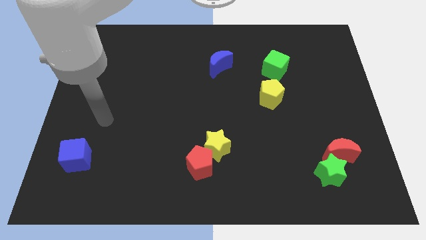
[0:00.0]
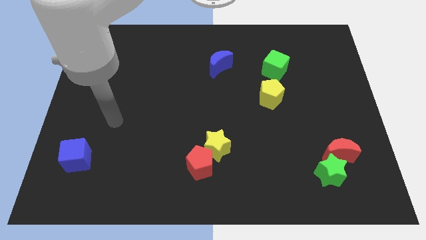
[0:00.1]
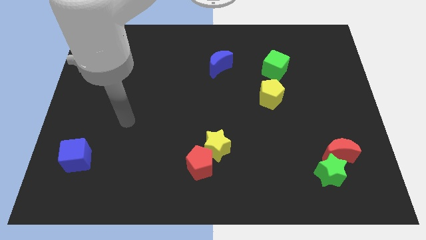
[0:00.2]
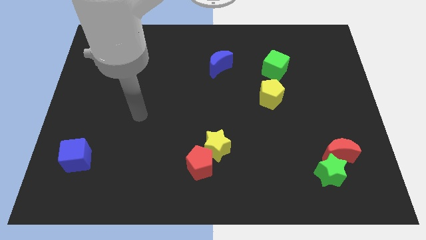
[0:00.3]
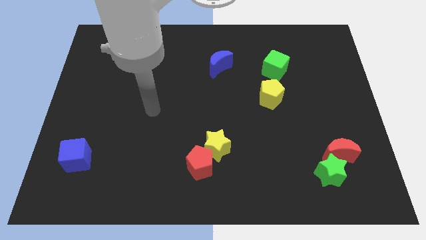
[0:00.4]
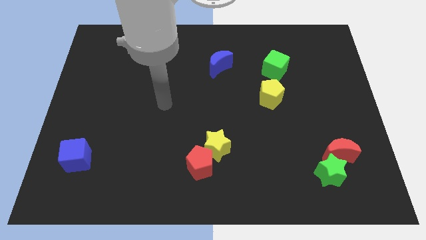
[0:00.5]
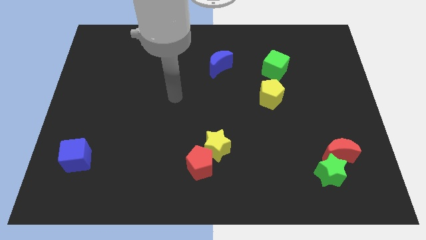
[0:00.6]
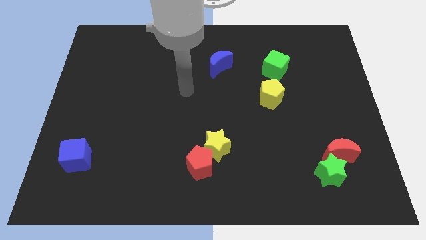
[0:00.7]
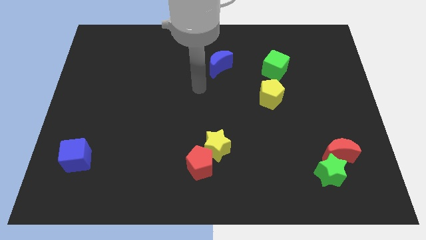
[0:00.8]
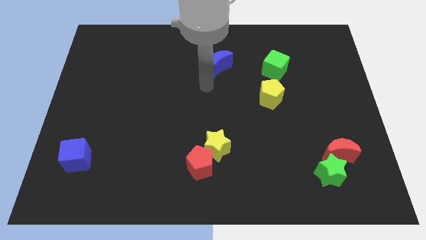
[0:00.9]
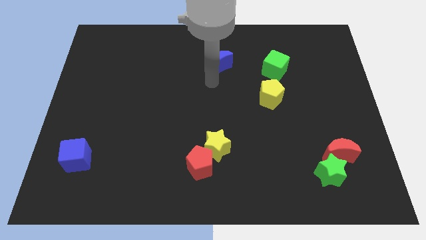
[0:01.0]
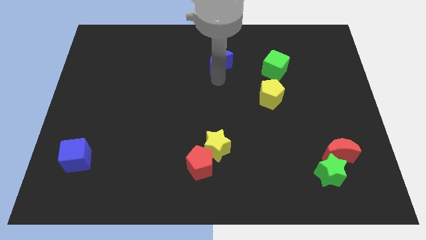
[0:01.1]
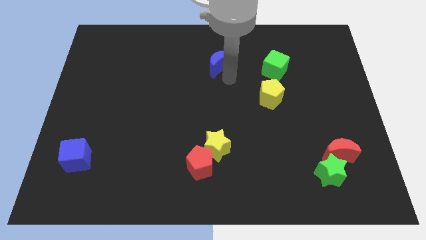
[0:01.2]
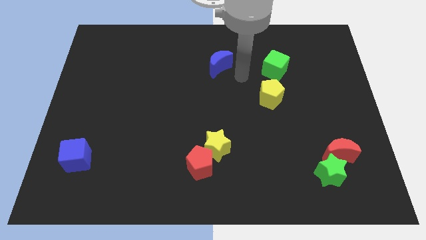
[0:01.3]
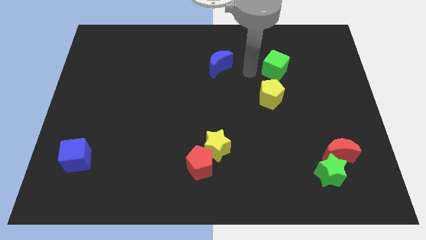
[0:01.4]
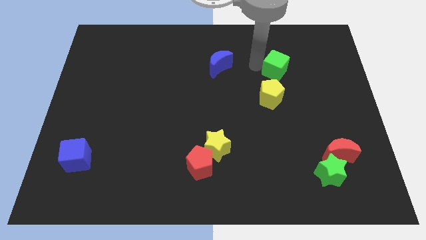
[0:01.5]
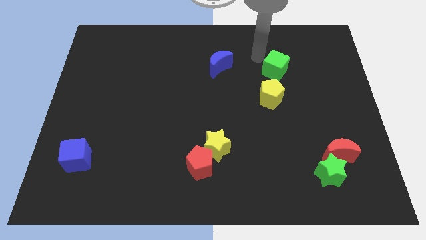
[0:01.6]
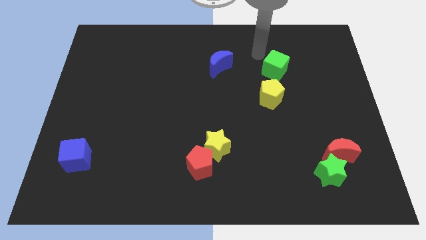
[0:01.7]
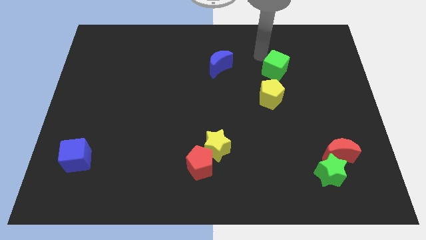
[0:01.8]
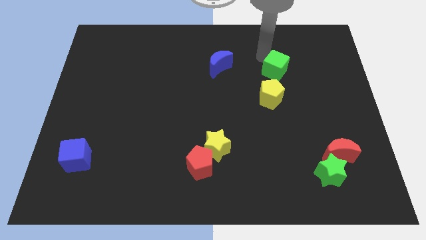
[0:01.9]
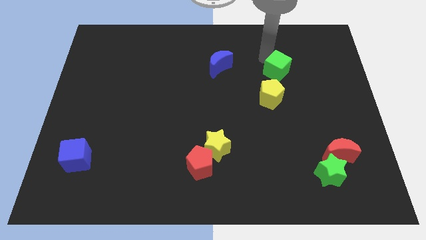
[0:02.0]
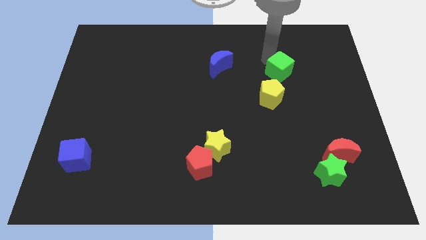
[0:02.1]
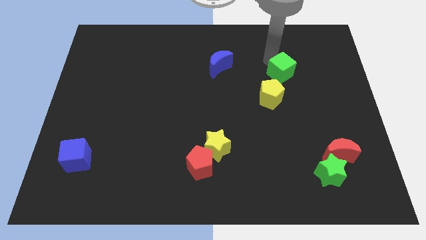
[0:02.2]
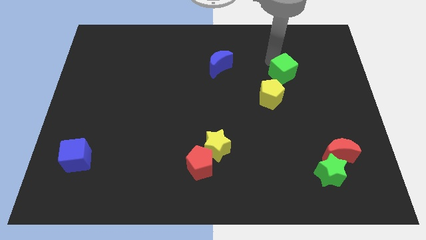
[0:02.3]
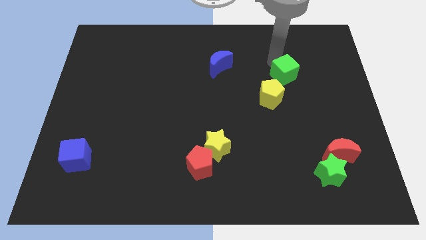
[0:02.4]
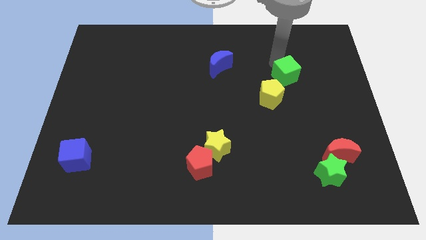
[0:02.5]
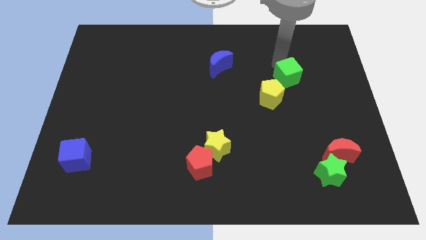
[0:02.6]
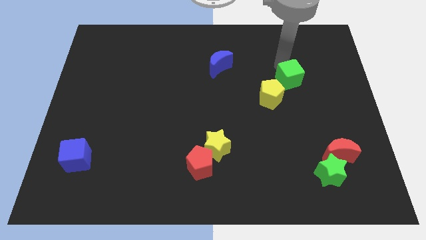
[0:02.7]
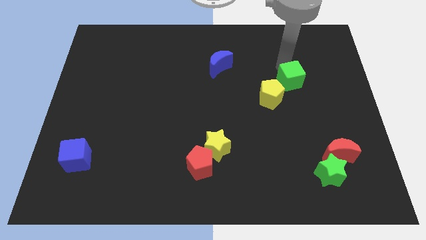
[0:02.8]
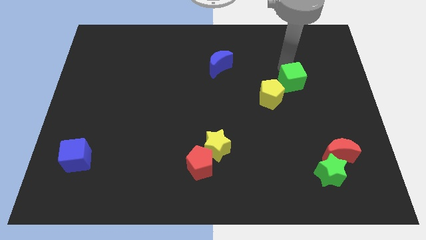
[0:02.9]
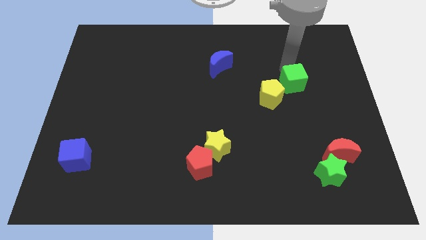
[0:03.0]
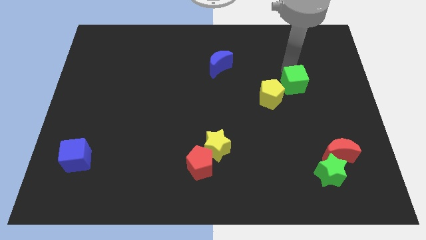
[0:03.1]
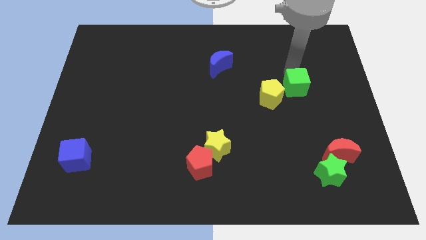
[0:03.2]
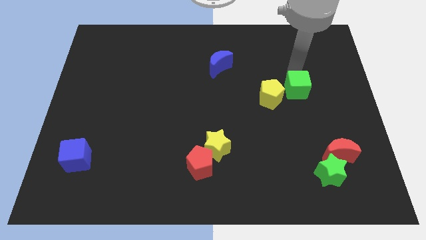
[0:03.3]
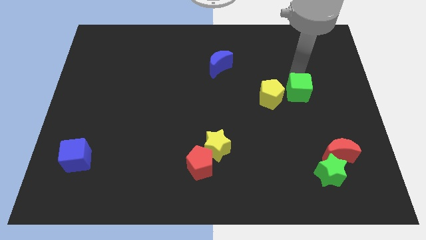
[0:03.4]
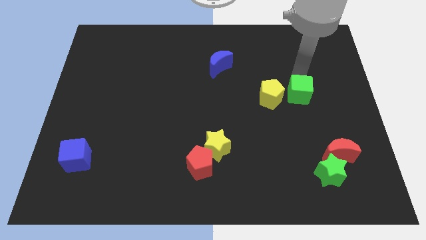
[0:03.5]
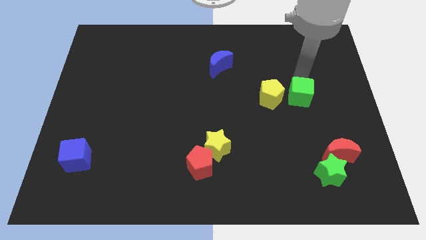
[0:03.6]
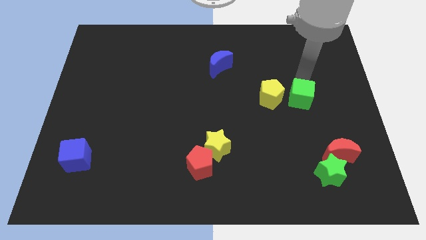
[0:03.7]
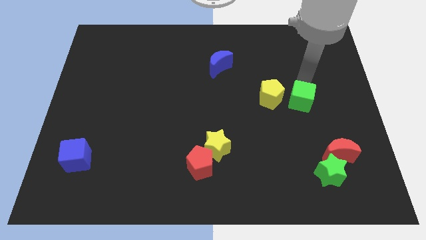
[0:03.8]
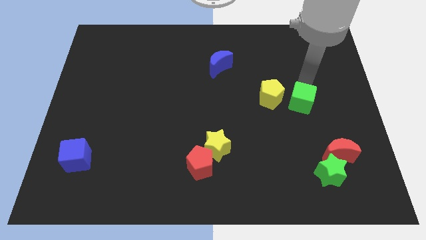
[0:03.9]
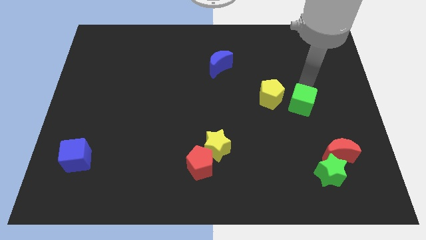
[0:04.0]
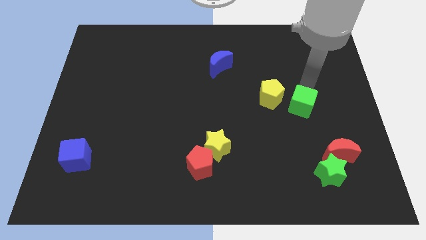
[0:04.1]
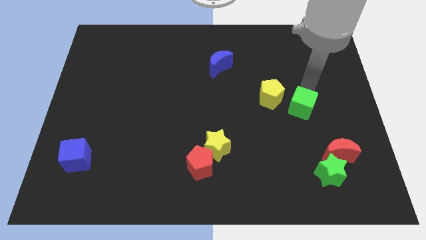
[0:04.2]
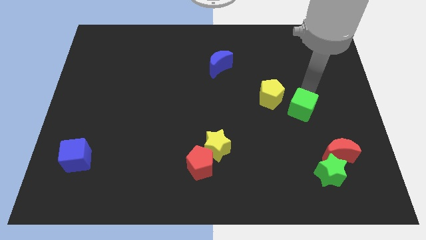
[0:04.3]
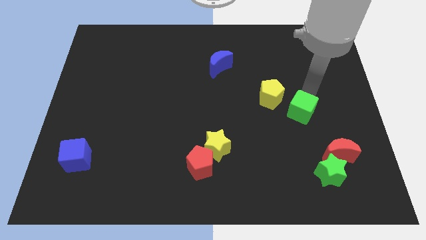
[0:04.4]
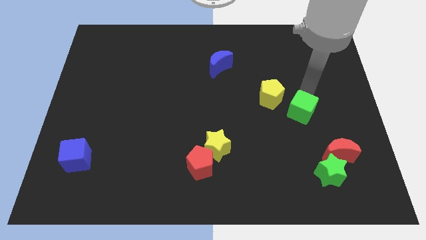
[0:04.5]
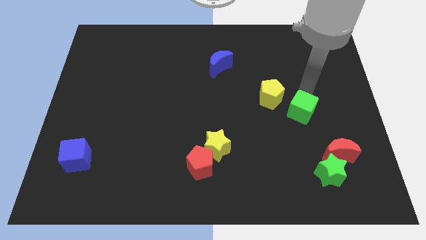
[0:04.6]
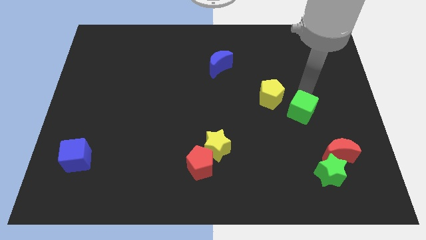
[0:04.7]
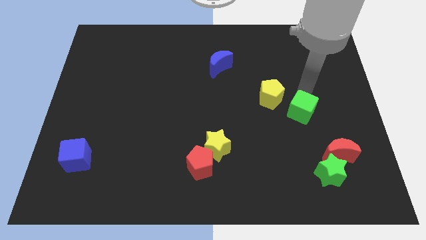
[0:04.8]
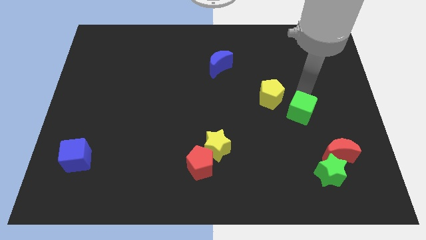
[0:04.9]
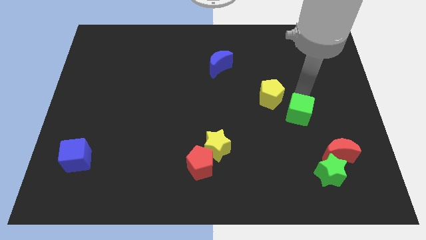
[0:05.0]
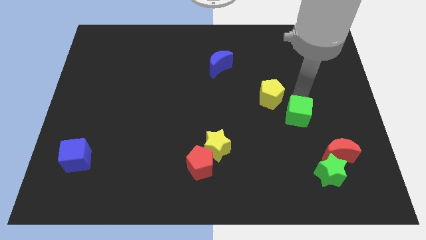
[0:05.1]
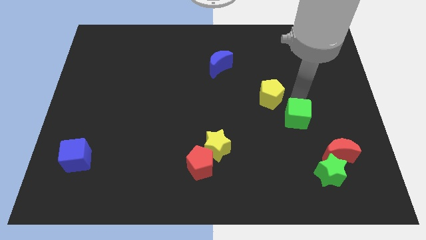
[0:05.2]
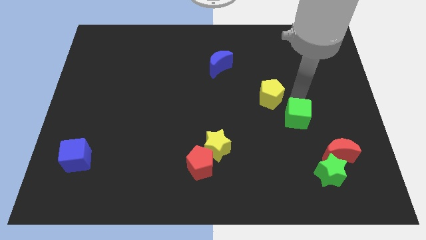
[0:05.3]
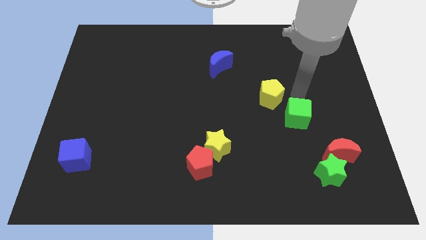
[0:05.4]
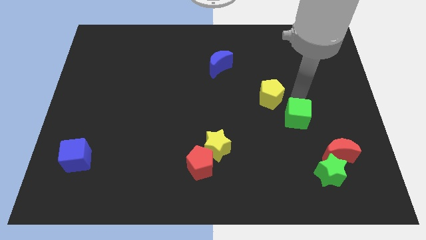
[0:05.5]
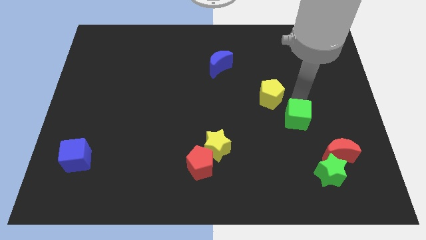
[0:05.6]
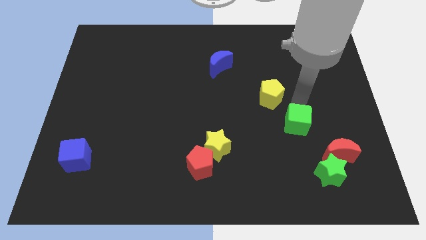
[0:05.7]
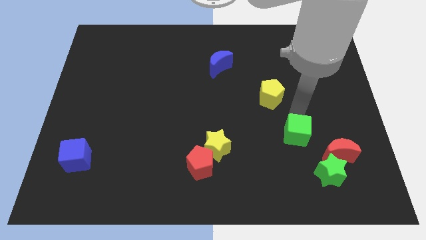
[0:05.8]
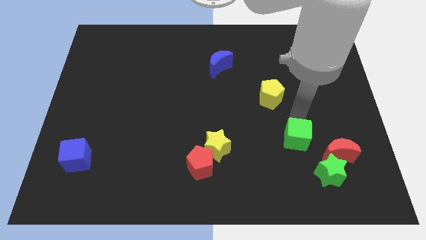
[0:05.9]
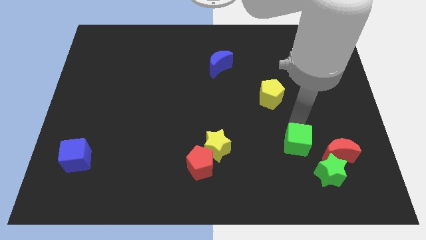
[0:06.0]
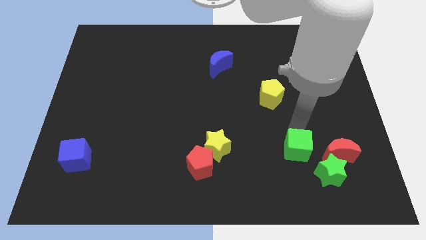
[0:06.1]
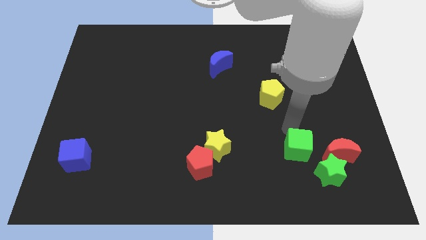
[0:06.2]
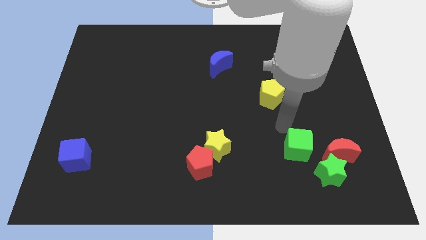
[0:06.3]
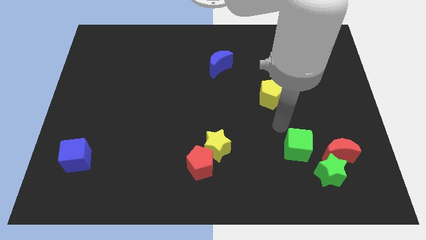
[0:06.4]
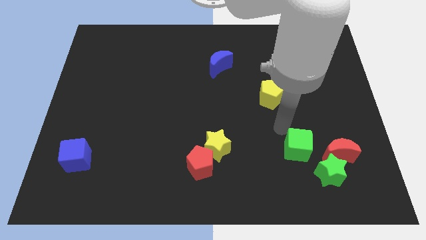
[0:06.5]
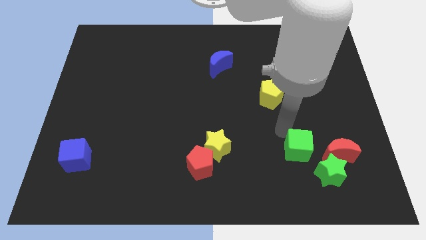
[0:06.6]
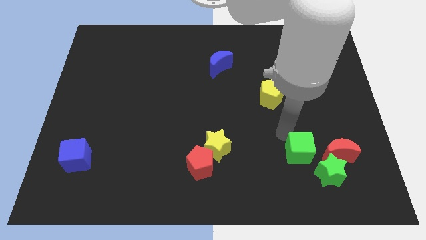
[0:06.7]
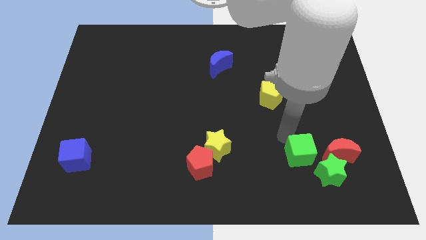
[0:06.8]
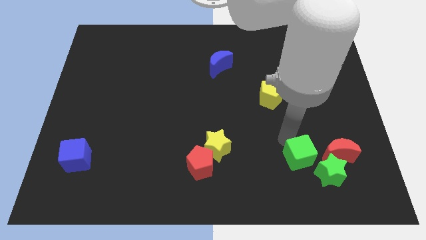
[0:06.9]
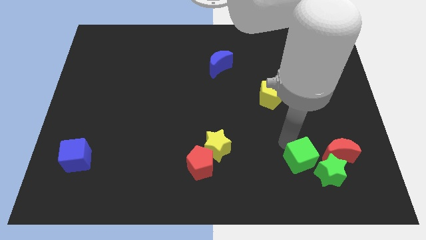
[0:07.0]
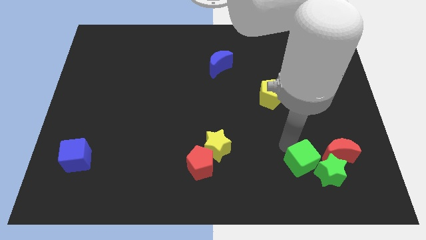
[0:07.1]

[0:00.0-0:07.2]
move the green cube diagonally down and to the left of the red moon

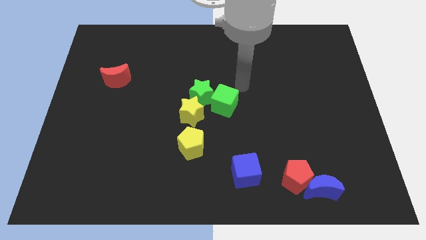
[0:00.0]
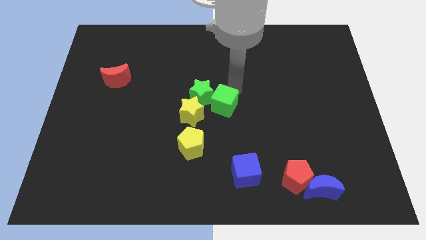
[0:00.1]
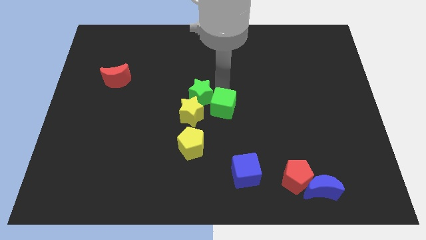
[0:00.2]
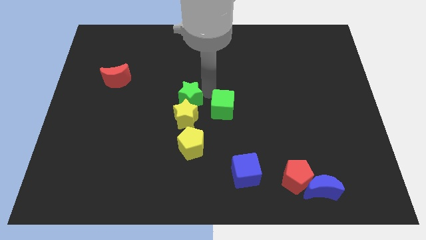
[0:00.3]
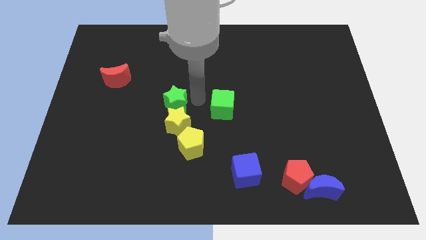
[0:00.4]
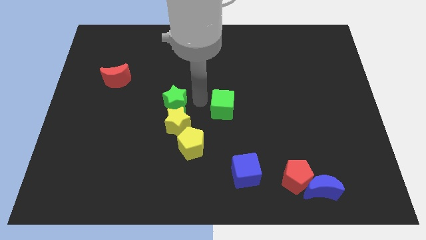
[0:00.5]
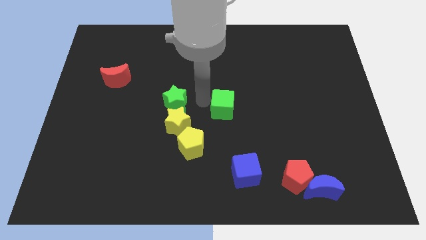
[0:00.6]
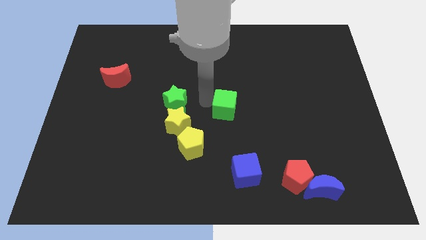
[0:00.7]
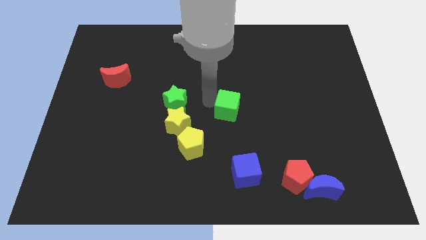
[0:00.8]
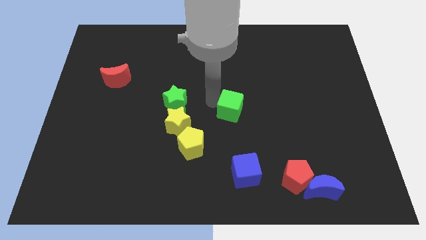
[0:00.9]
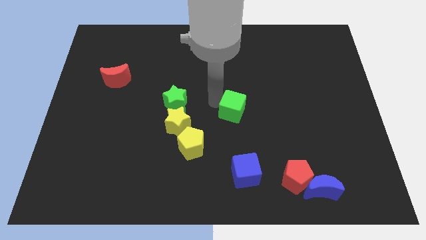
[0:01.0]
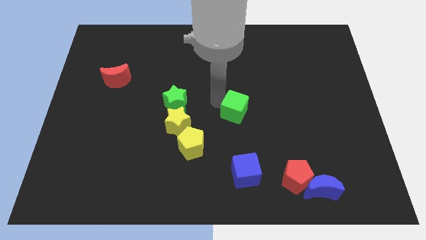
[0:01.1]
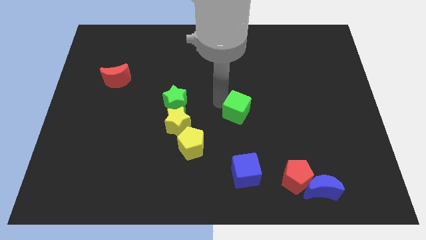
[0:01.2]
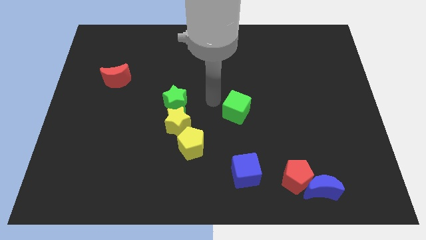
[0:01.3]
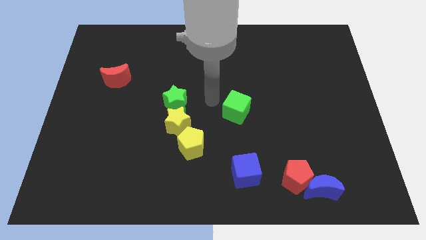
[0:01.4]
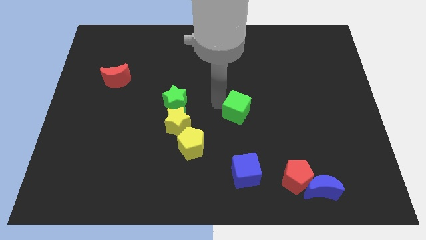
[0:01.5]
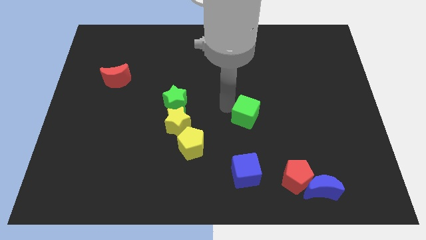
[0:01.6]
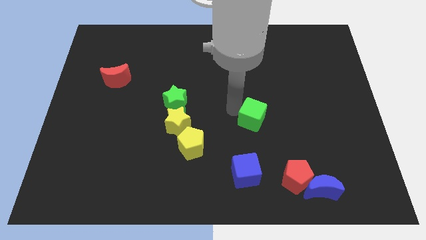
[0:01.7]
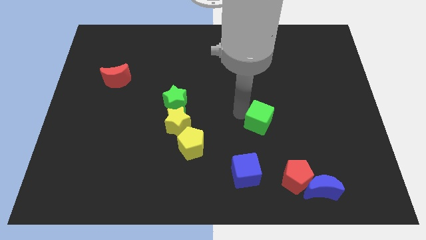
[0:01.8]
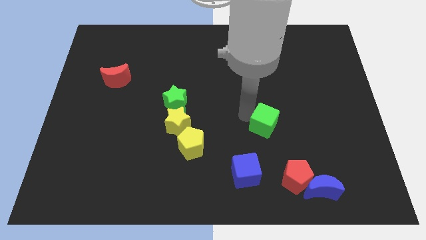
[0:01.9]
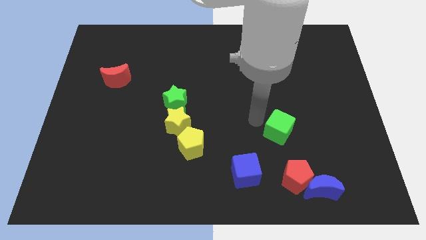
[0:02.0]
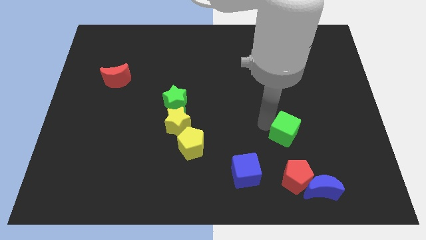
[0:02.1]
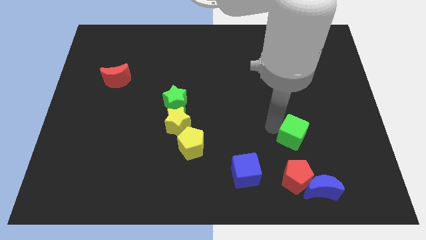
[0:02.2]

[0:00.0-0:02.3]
move the green cube to the top side of the blue moon
